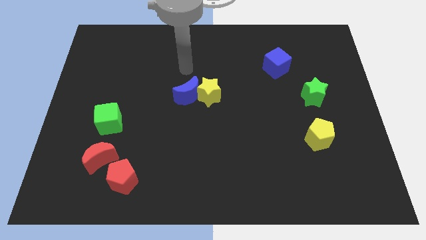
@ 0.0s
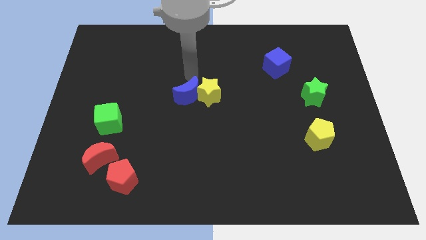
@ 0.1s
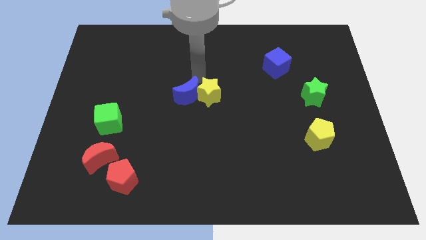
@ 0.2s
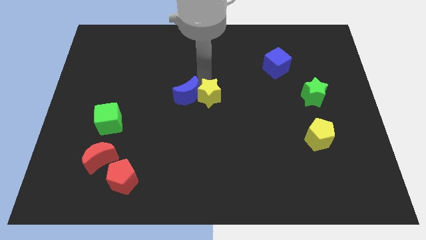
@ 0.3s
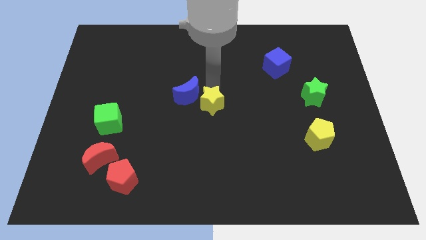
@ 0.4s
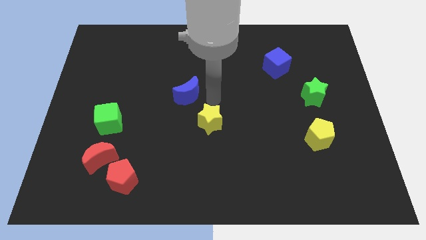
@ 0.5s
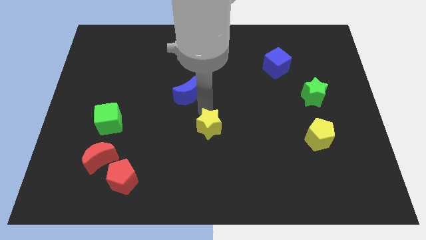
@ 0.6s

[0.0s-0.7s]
move the blue moon away from the yellow star

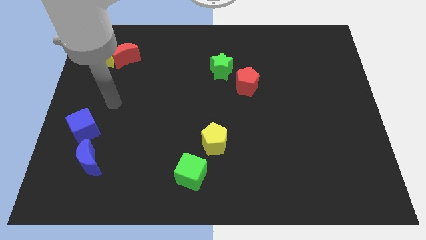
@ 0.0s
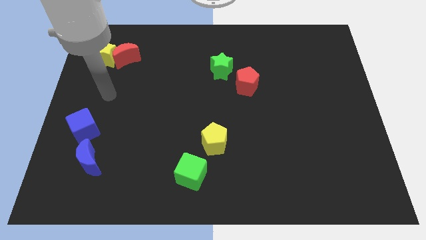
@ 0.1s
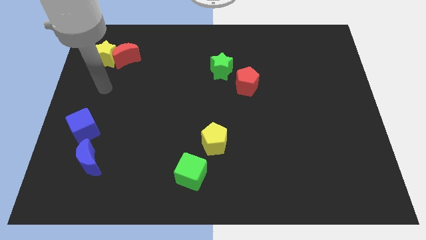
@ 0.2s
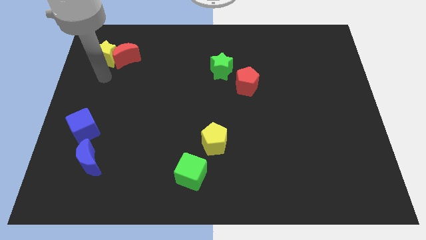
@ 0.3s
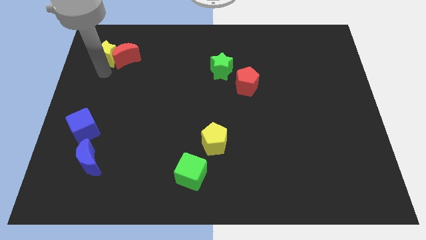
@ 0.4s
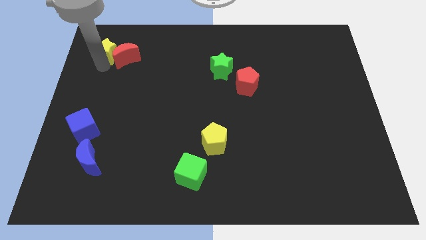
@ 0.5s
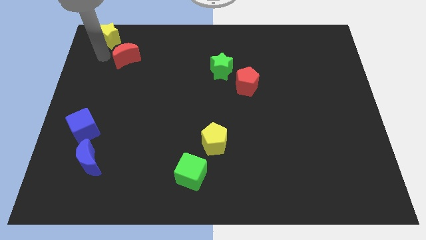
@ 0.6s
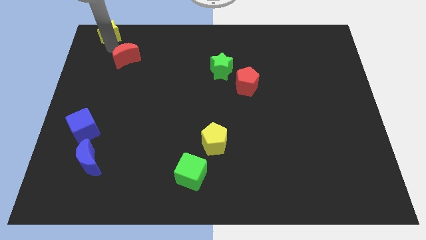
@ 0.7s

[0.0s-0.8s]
move the red moon away from the yellow star

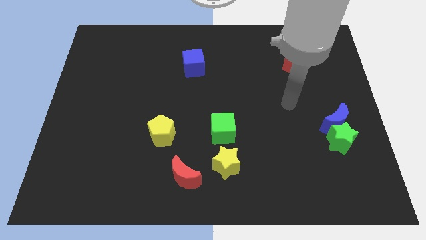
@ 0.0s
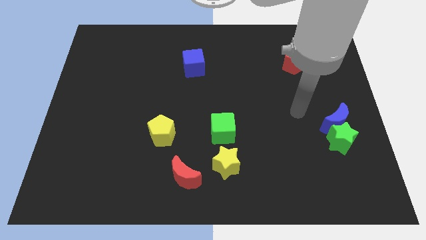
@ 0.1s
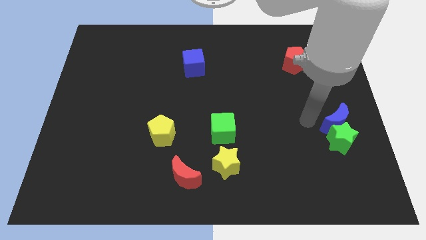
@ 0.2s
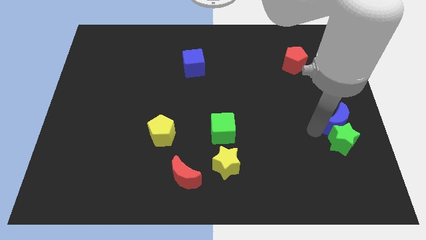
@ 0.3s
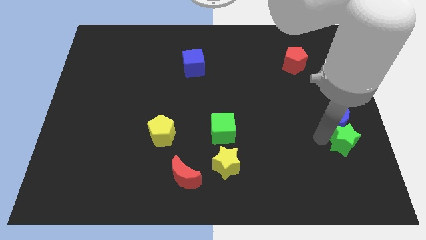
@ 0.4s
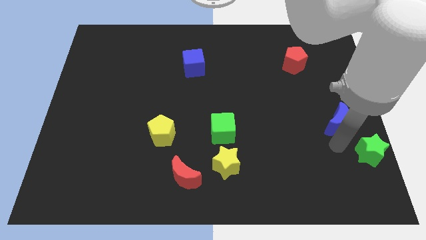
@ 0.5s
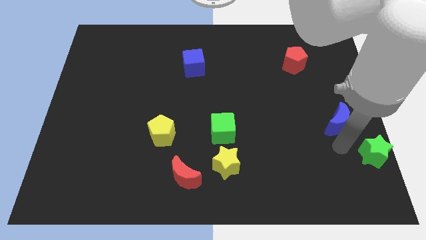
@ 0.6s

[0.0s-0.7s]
pull the blue moon apart from the green star

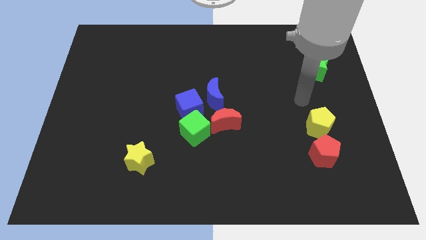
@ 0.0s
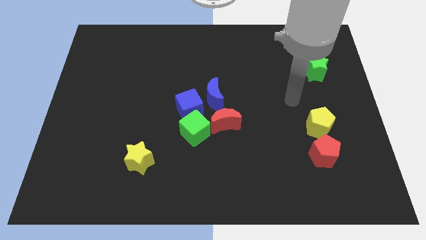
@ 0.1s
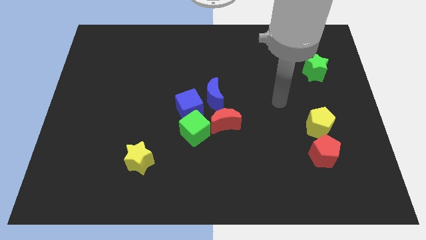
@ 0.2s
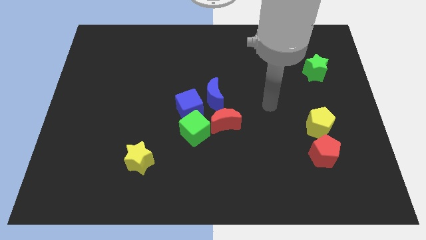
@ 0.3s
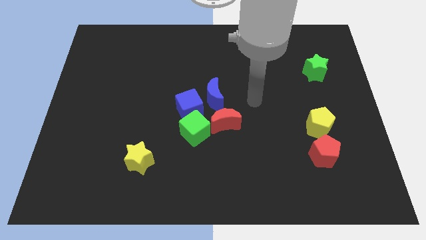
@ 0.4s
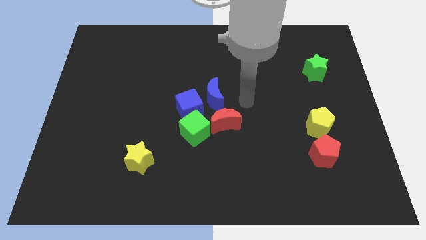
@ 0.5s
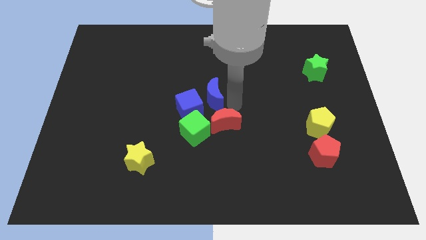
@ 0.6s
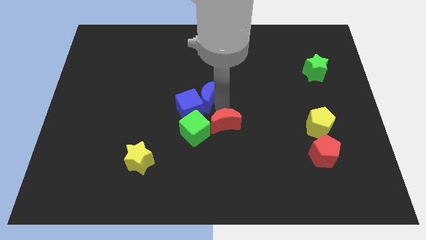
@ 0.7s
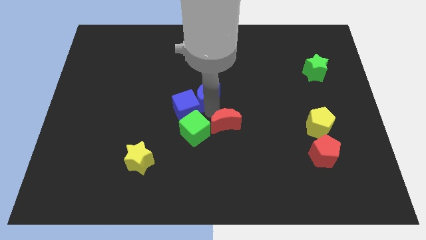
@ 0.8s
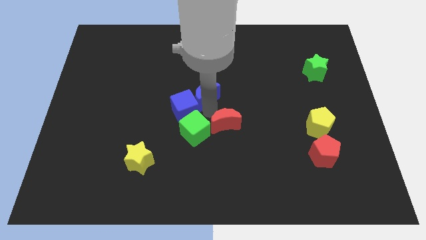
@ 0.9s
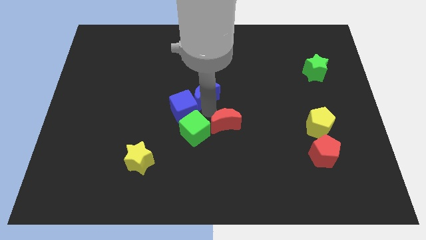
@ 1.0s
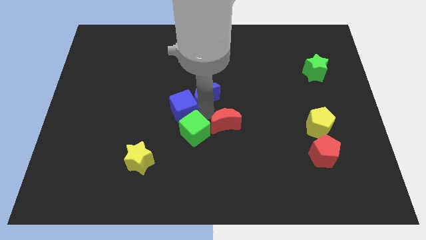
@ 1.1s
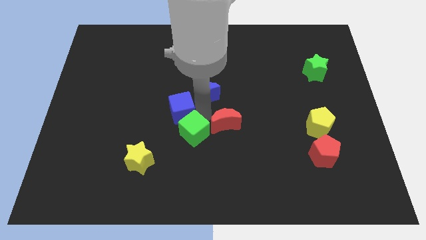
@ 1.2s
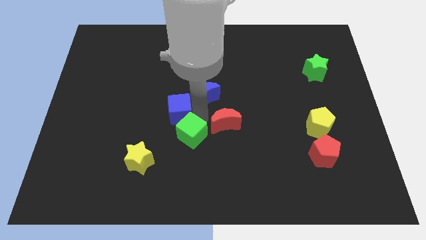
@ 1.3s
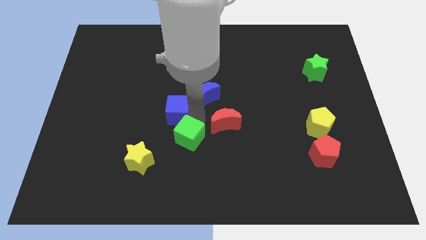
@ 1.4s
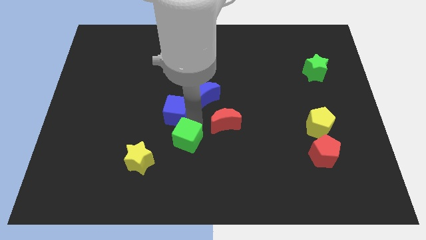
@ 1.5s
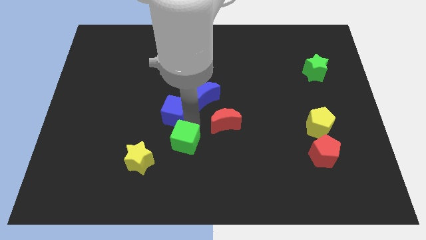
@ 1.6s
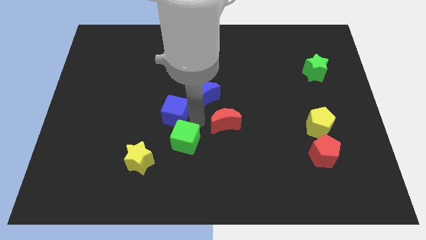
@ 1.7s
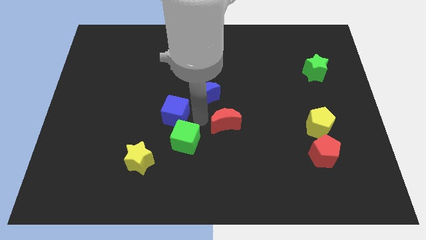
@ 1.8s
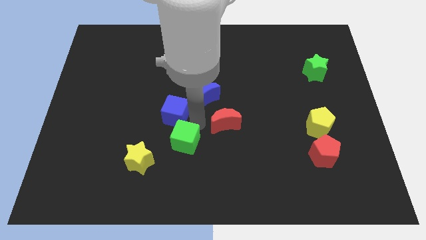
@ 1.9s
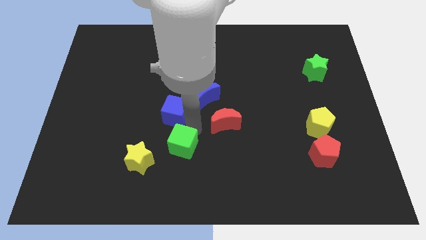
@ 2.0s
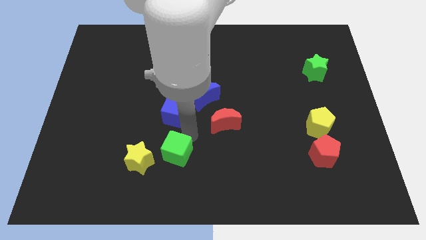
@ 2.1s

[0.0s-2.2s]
move the green cube away from the blue cube and red moon

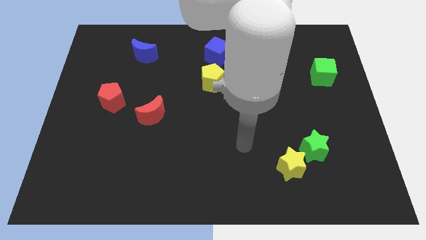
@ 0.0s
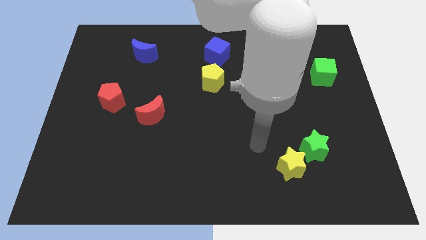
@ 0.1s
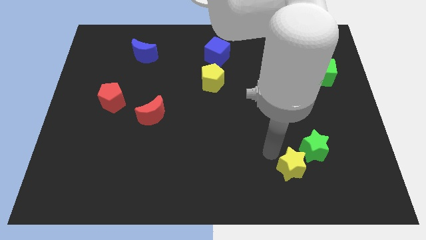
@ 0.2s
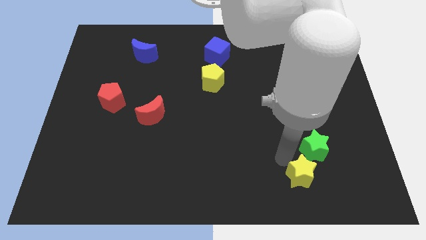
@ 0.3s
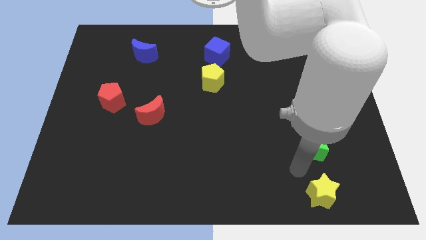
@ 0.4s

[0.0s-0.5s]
move the green star away from the yellow star

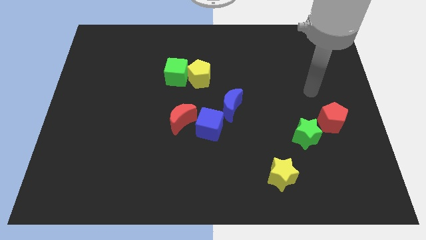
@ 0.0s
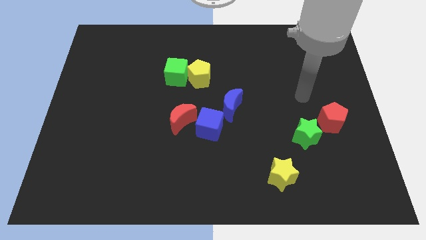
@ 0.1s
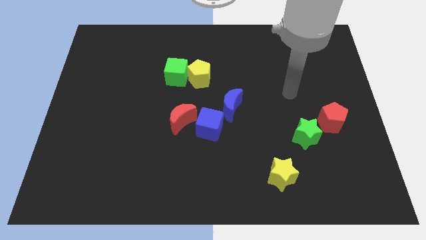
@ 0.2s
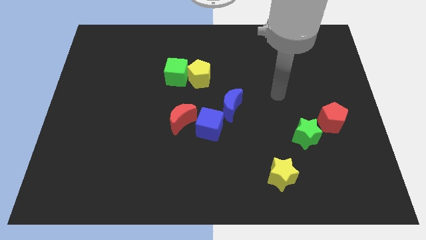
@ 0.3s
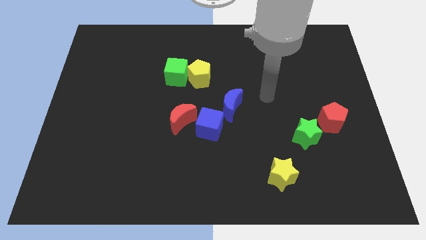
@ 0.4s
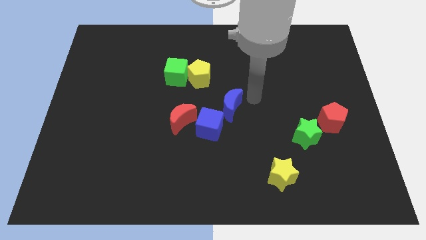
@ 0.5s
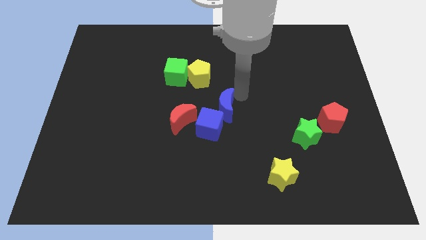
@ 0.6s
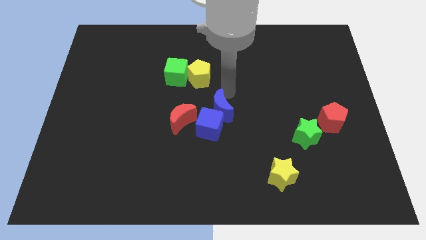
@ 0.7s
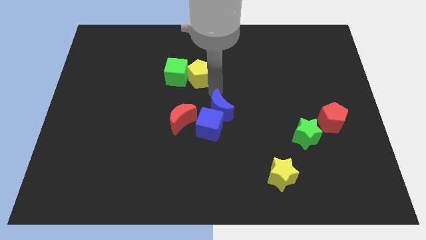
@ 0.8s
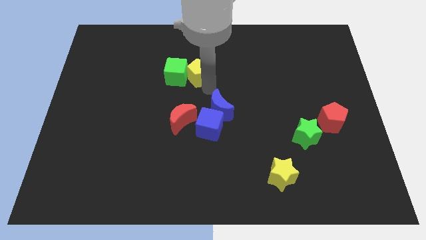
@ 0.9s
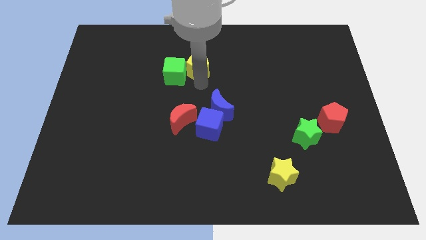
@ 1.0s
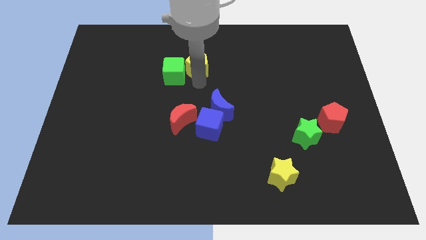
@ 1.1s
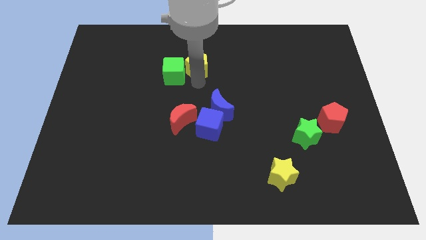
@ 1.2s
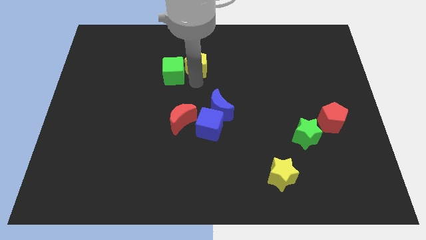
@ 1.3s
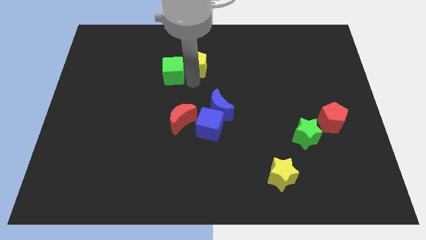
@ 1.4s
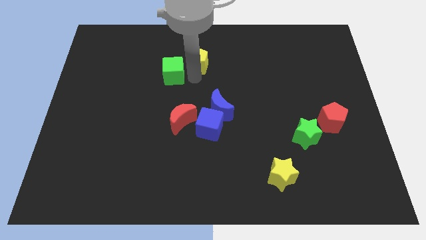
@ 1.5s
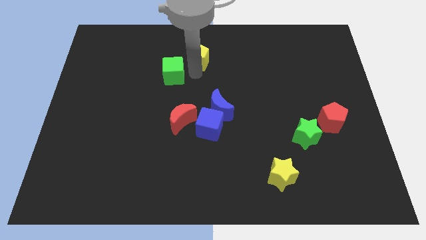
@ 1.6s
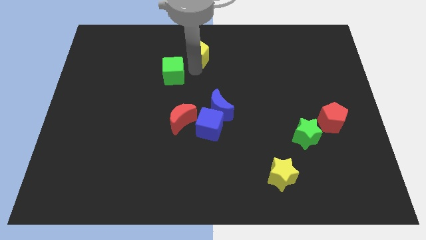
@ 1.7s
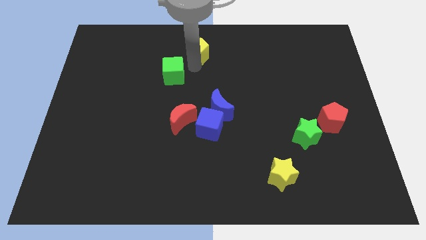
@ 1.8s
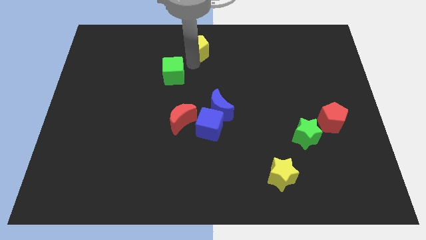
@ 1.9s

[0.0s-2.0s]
separate the green cube from the yellow pentagon

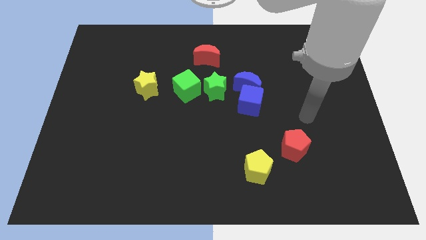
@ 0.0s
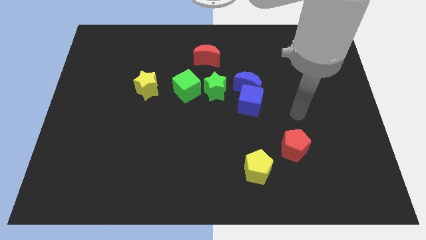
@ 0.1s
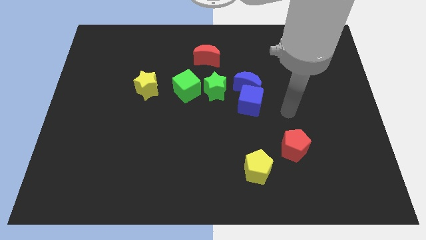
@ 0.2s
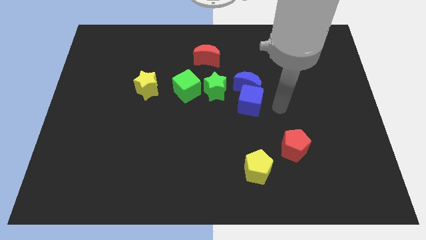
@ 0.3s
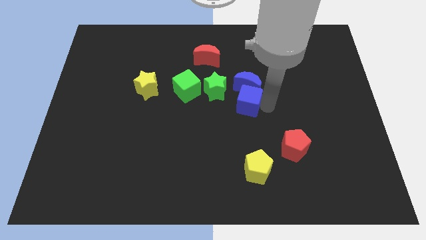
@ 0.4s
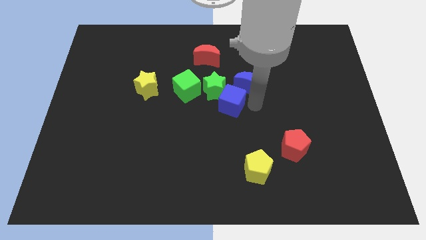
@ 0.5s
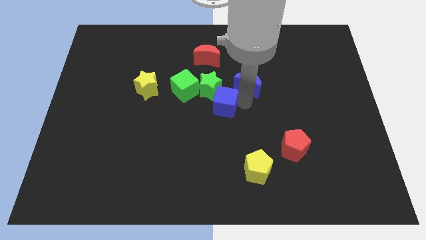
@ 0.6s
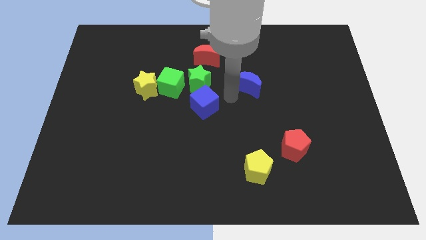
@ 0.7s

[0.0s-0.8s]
move the blue moon away from the blue cube and green star

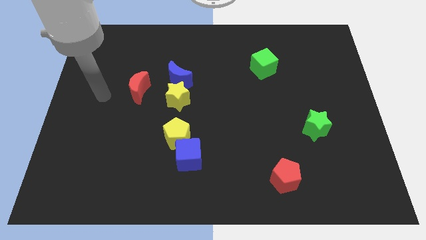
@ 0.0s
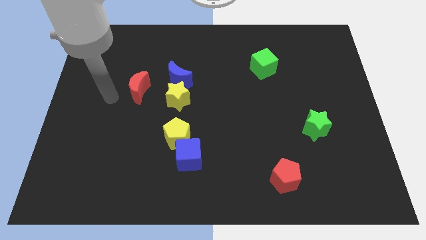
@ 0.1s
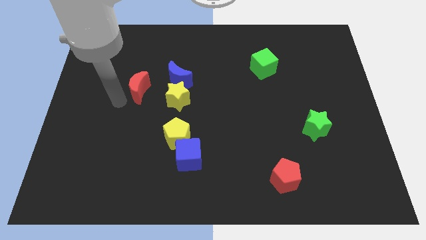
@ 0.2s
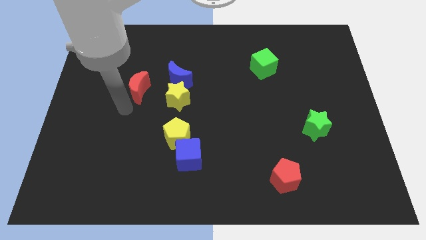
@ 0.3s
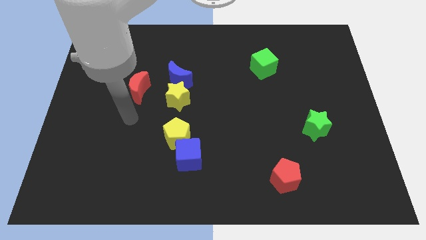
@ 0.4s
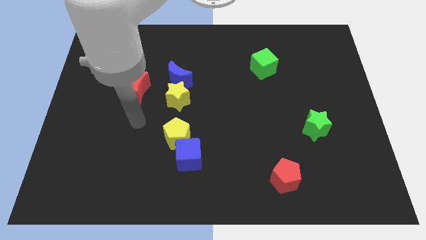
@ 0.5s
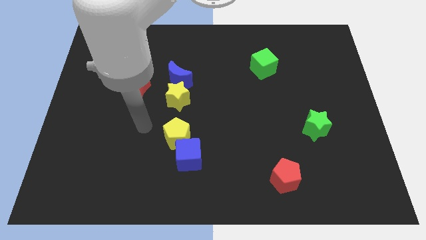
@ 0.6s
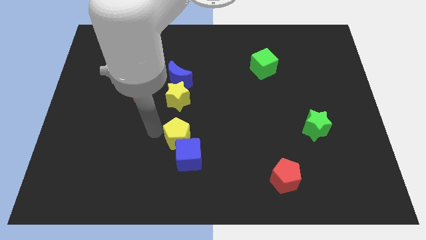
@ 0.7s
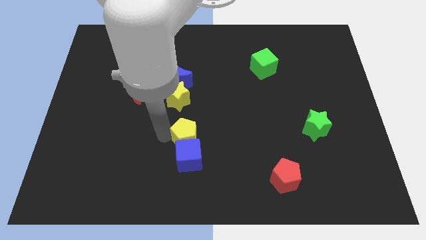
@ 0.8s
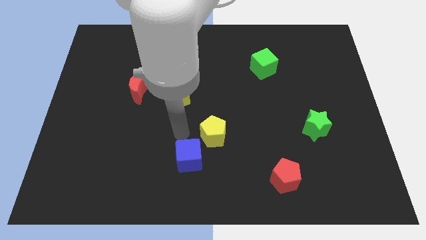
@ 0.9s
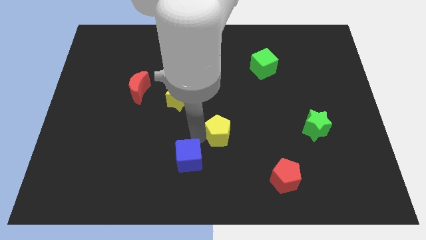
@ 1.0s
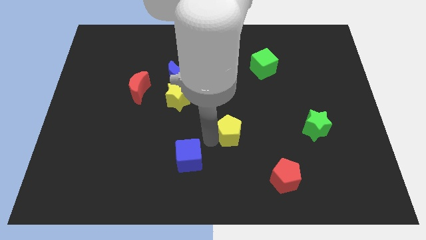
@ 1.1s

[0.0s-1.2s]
pull the blue cube apart from the yellow pentagon

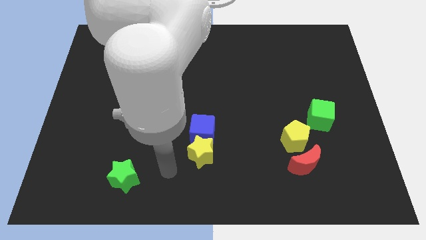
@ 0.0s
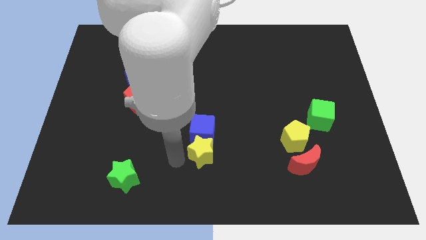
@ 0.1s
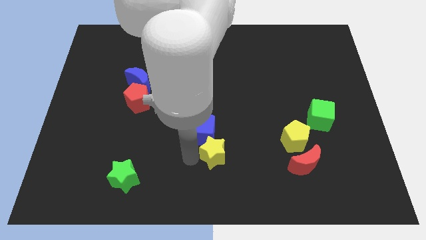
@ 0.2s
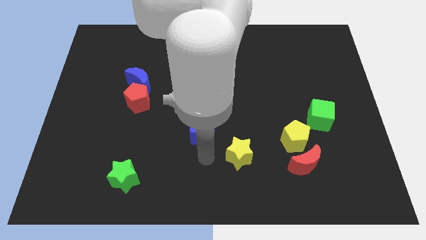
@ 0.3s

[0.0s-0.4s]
move the blue cube away from the yellow star
